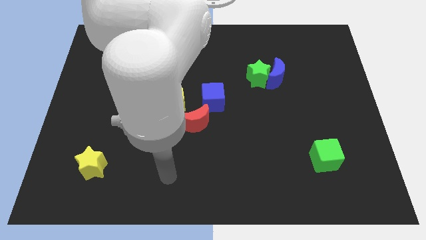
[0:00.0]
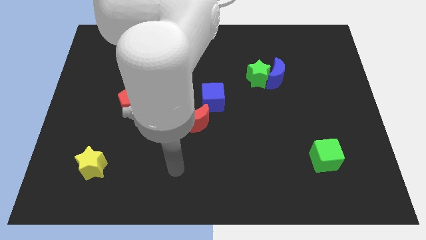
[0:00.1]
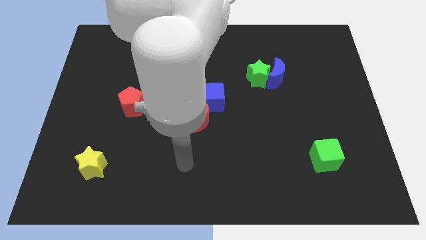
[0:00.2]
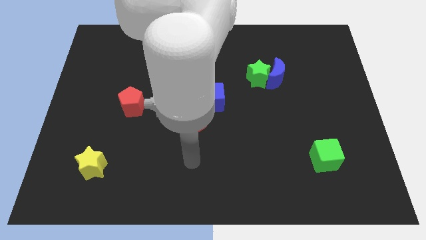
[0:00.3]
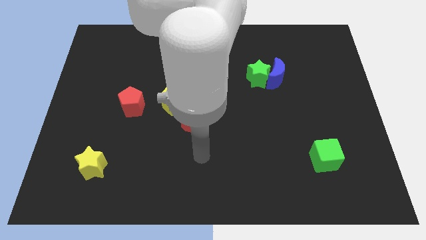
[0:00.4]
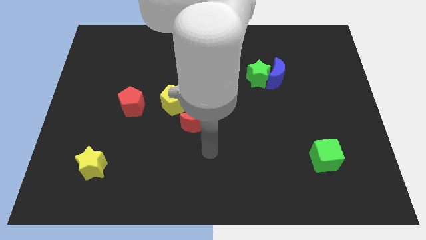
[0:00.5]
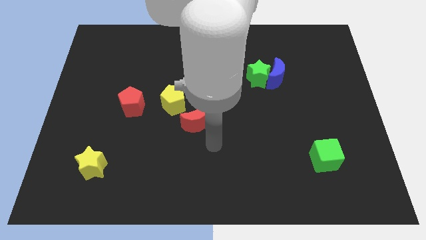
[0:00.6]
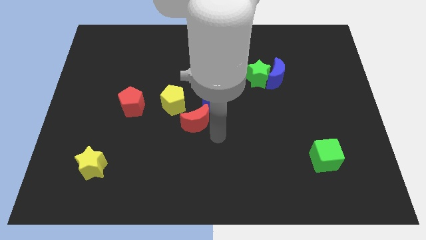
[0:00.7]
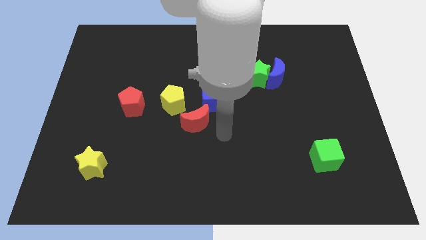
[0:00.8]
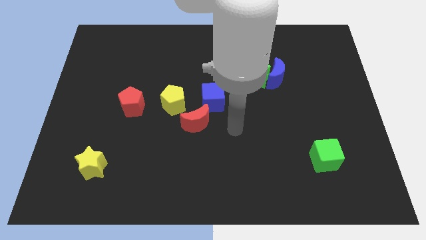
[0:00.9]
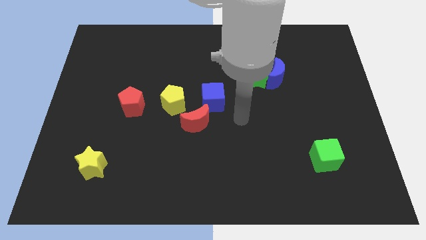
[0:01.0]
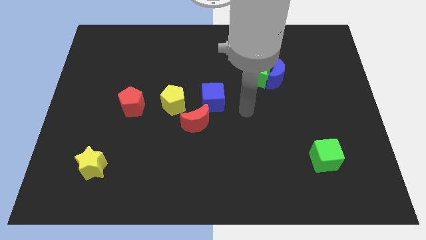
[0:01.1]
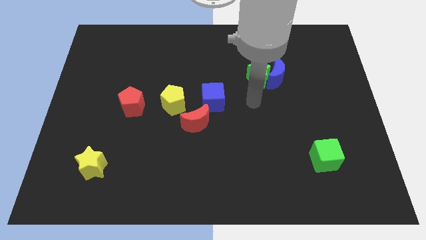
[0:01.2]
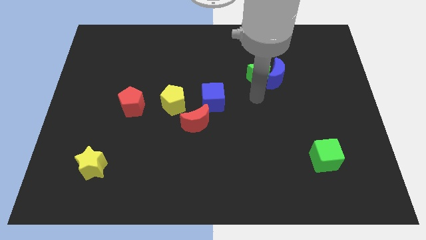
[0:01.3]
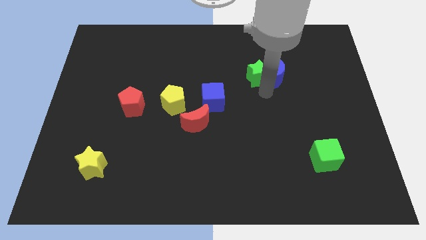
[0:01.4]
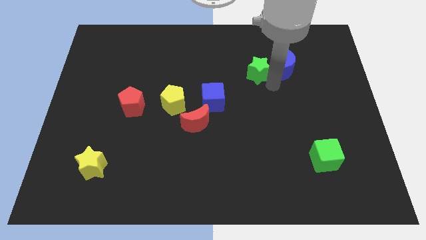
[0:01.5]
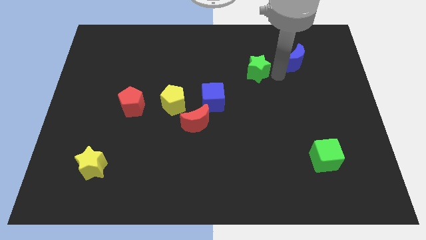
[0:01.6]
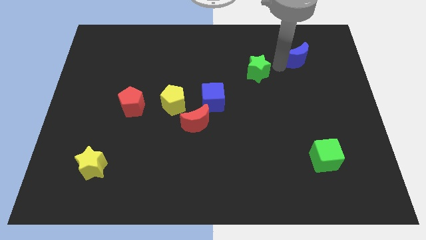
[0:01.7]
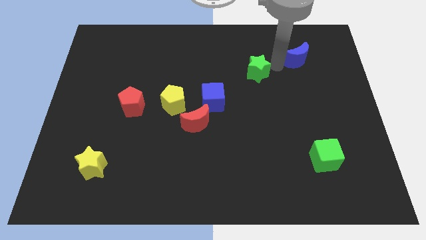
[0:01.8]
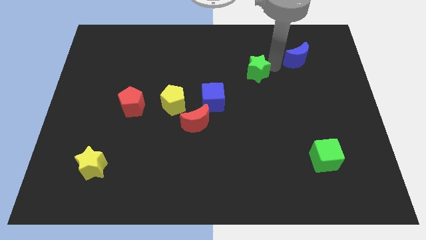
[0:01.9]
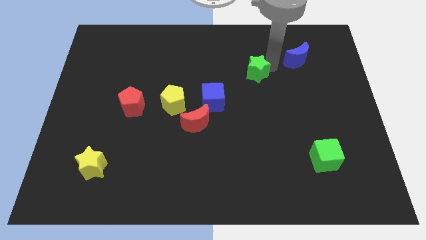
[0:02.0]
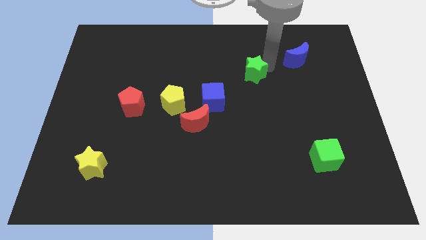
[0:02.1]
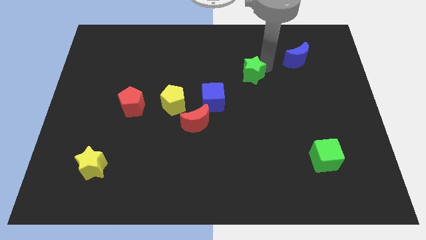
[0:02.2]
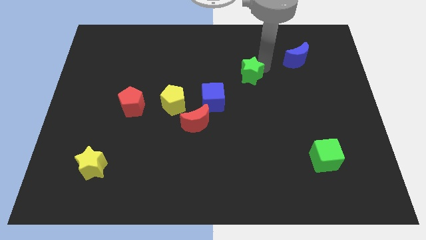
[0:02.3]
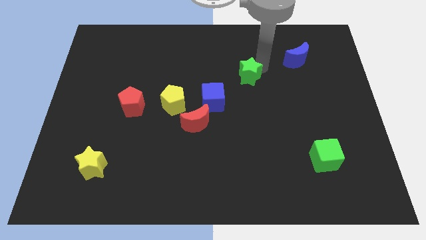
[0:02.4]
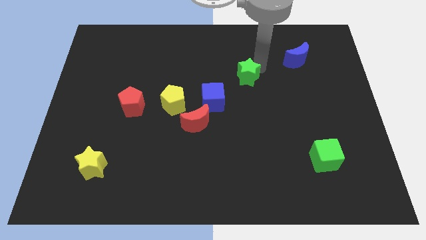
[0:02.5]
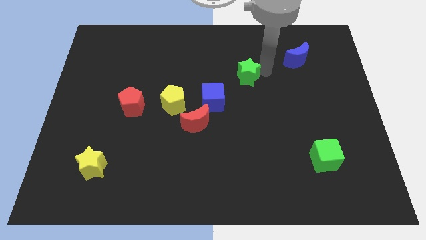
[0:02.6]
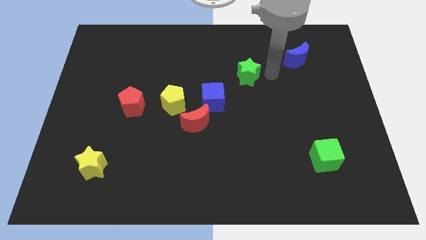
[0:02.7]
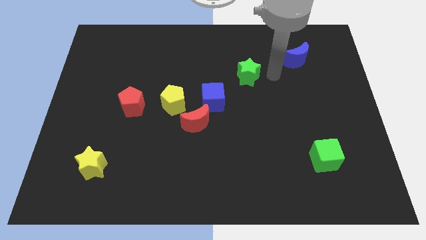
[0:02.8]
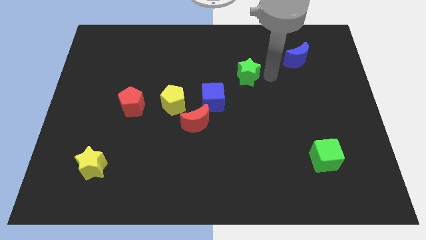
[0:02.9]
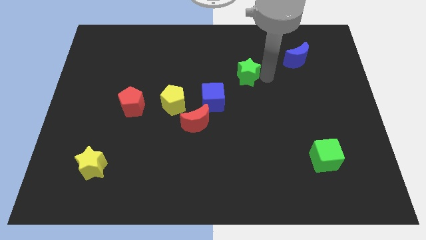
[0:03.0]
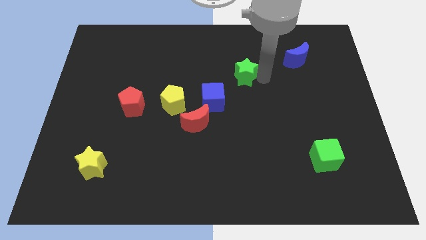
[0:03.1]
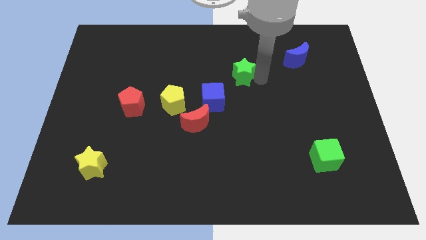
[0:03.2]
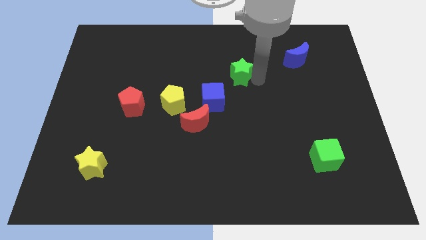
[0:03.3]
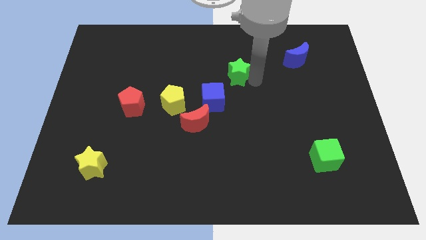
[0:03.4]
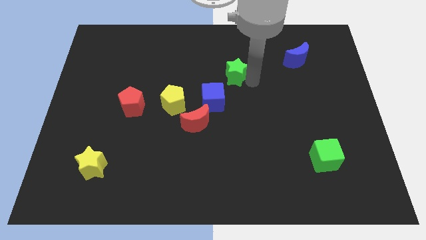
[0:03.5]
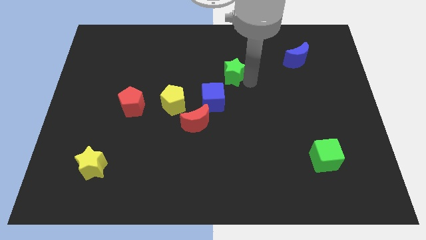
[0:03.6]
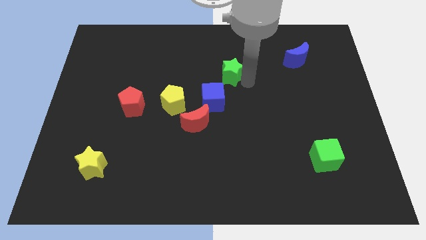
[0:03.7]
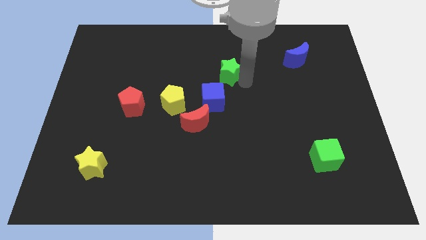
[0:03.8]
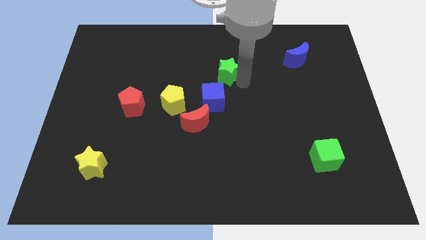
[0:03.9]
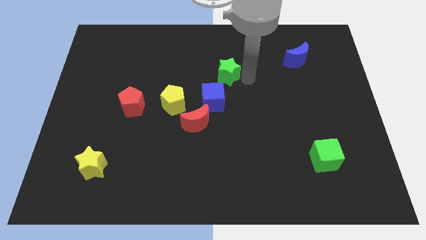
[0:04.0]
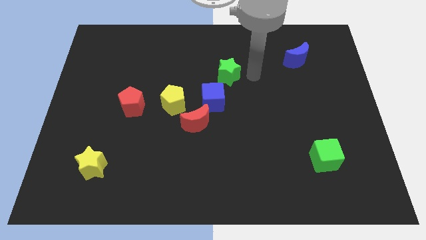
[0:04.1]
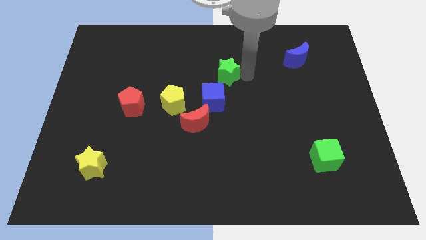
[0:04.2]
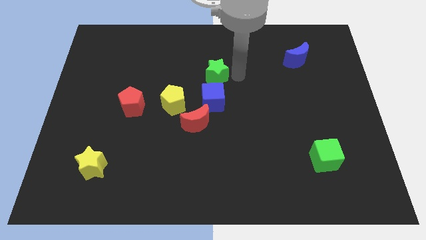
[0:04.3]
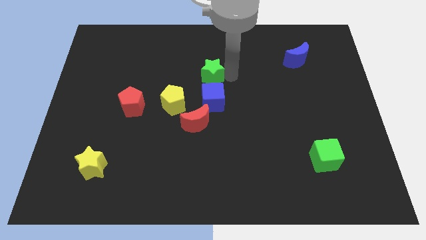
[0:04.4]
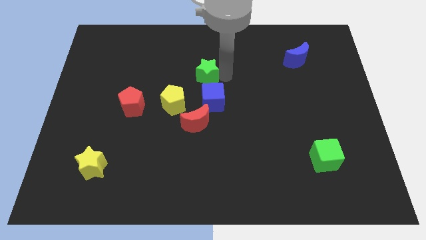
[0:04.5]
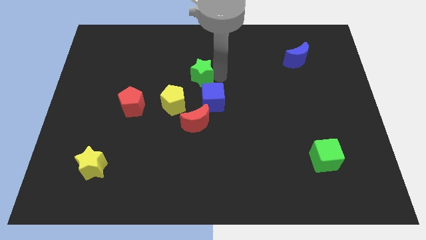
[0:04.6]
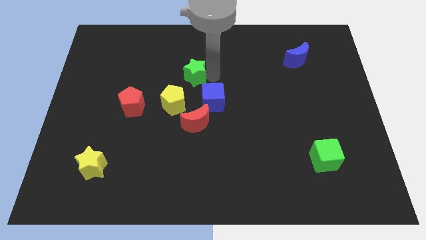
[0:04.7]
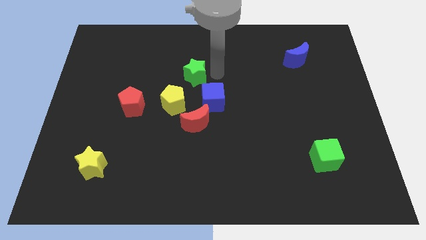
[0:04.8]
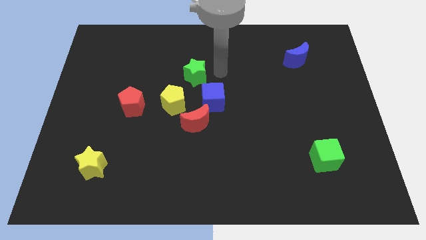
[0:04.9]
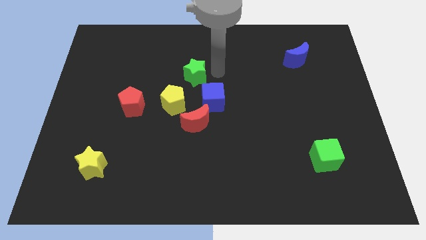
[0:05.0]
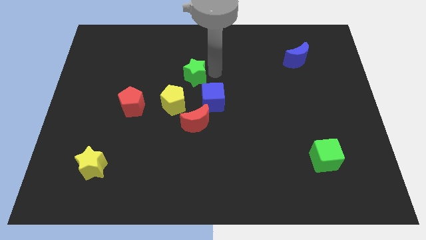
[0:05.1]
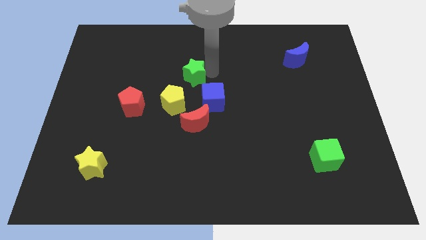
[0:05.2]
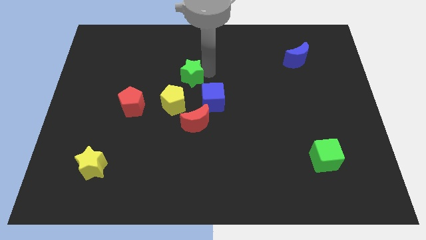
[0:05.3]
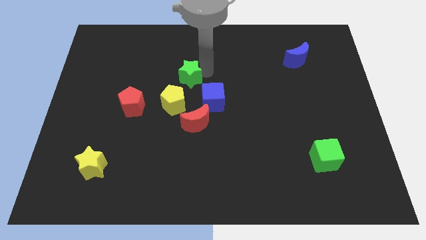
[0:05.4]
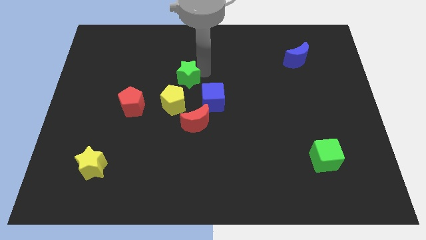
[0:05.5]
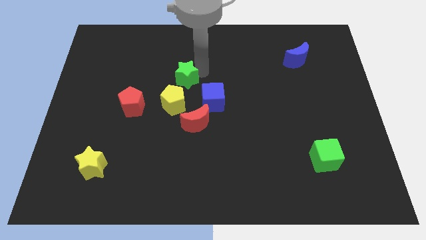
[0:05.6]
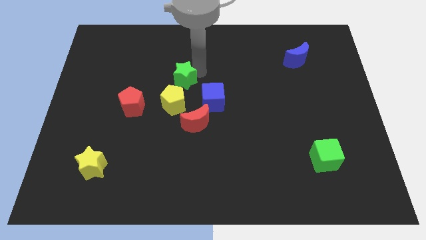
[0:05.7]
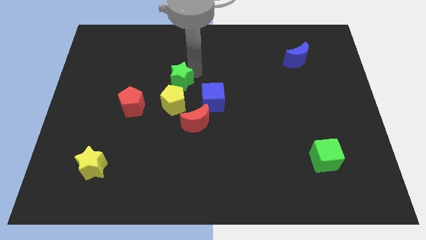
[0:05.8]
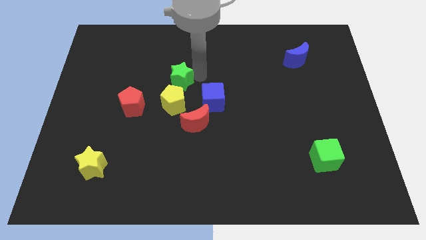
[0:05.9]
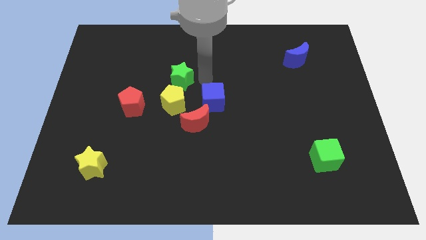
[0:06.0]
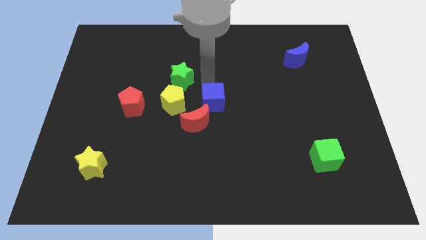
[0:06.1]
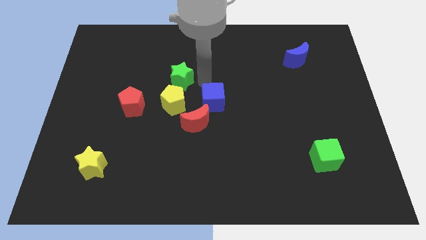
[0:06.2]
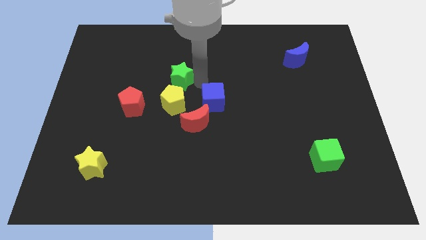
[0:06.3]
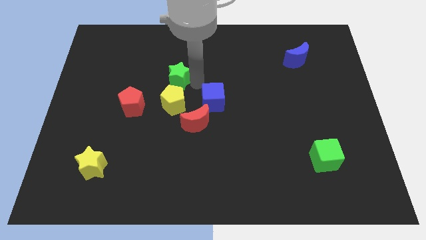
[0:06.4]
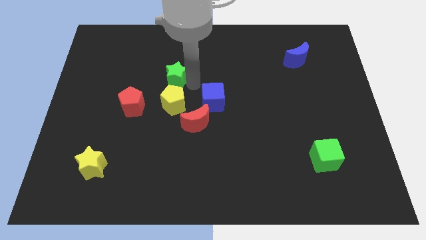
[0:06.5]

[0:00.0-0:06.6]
slide the green star left

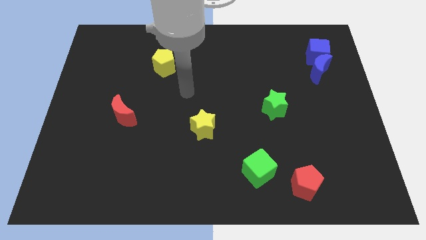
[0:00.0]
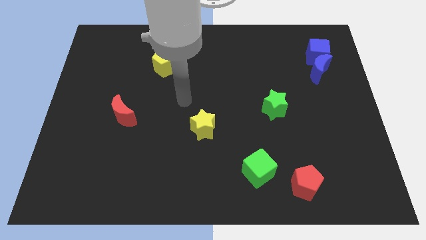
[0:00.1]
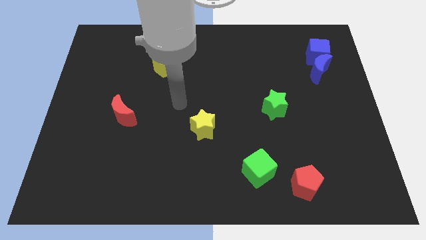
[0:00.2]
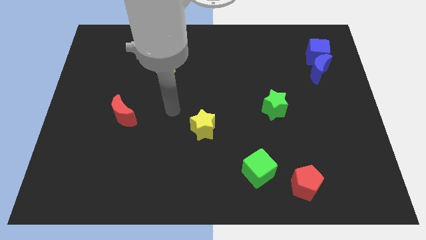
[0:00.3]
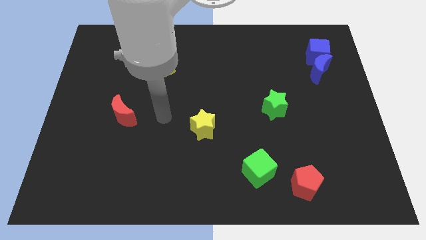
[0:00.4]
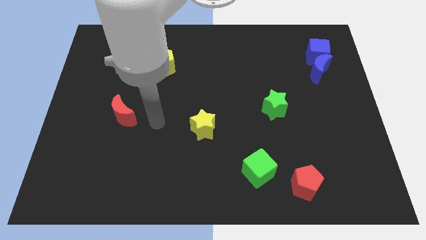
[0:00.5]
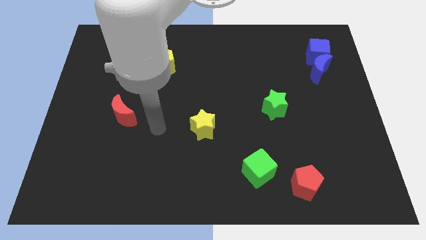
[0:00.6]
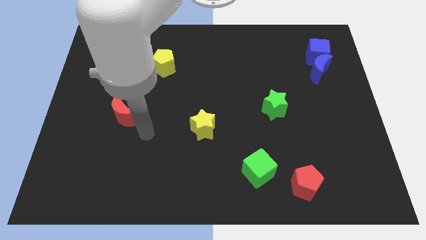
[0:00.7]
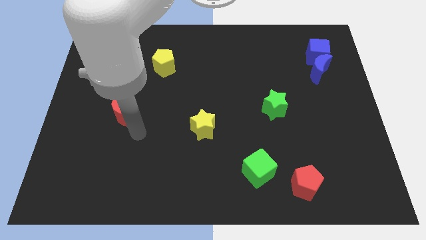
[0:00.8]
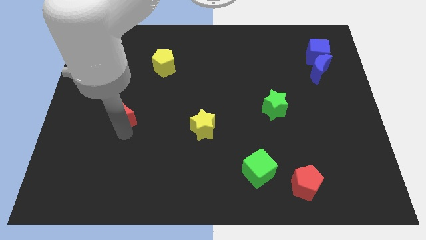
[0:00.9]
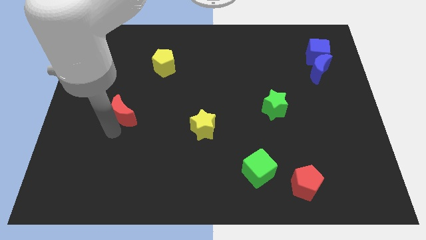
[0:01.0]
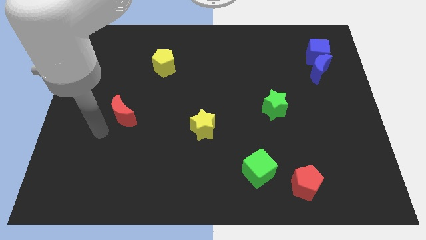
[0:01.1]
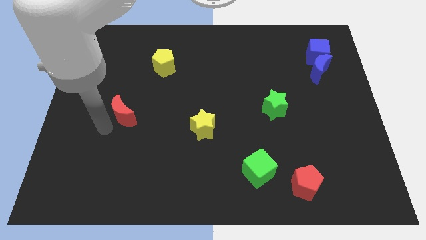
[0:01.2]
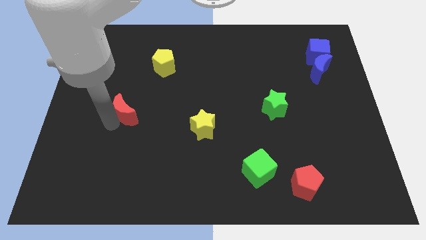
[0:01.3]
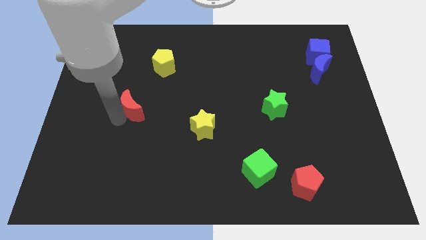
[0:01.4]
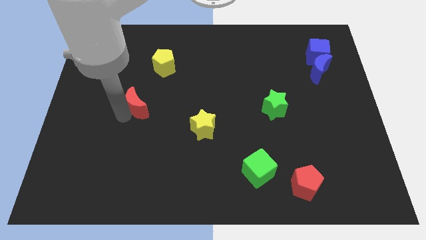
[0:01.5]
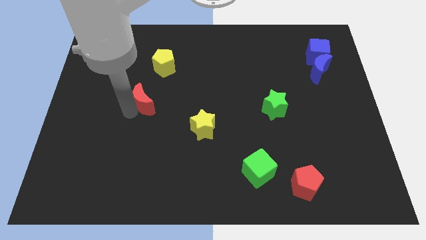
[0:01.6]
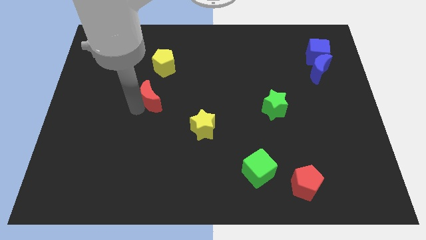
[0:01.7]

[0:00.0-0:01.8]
slightly push the red moon diagonally upwards and to the right
